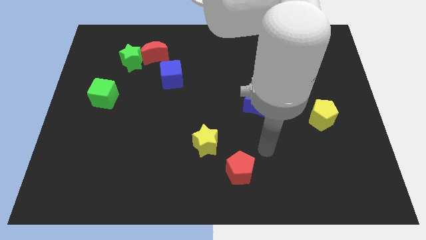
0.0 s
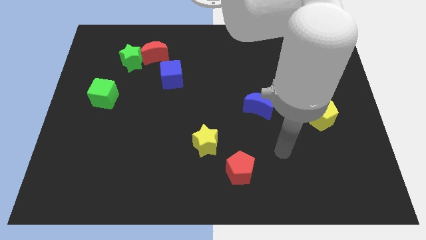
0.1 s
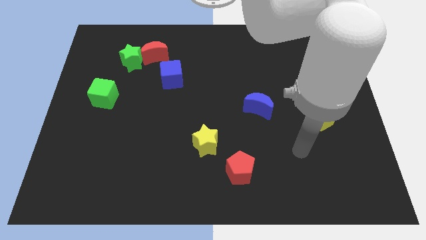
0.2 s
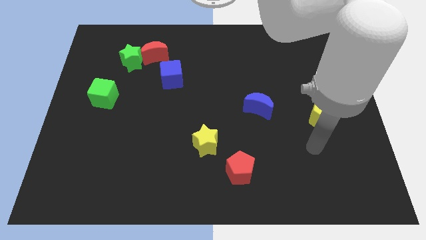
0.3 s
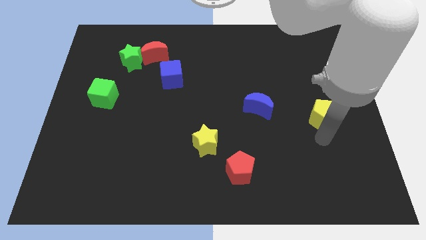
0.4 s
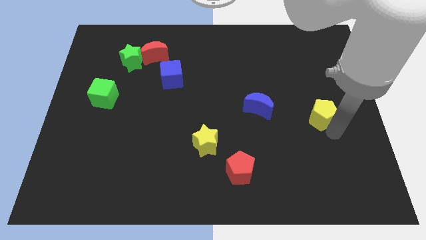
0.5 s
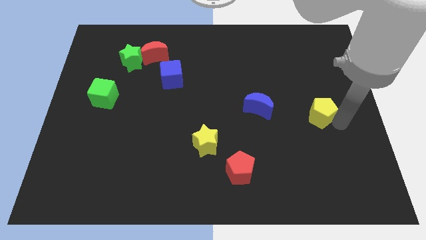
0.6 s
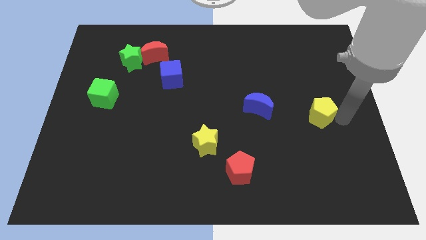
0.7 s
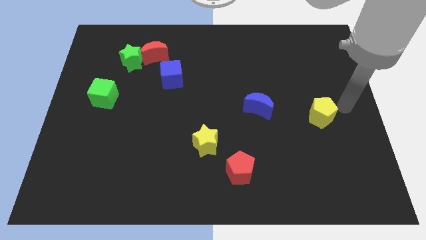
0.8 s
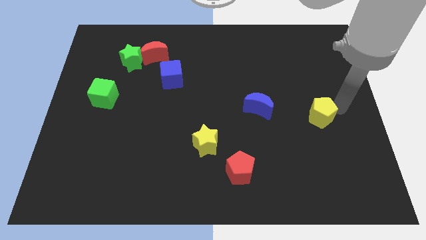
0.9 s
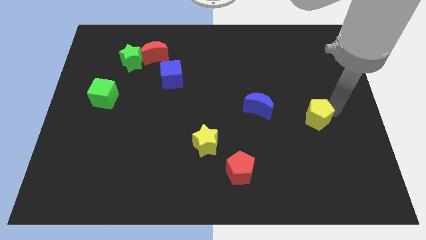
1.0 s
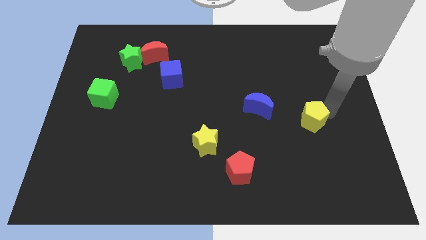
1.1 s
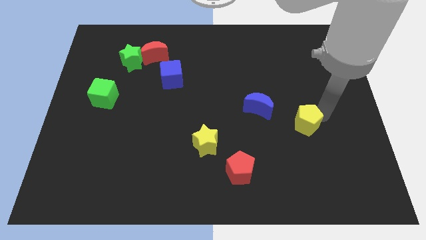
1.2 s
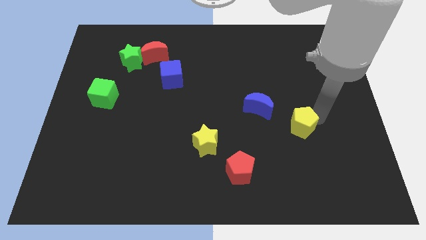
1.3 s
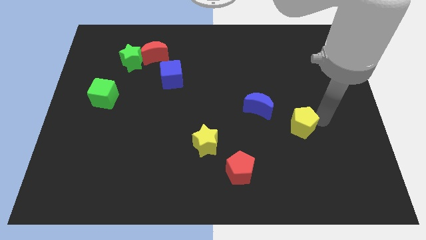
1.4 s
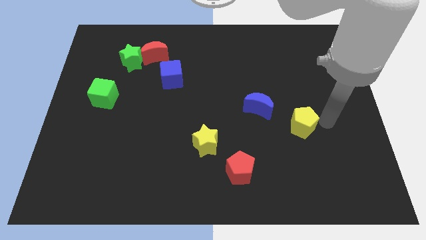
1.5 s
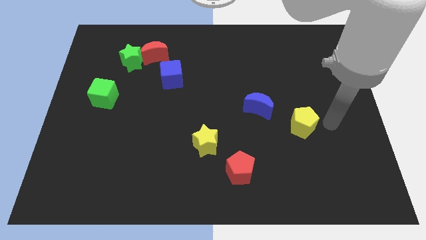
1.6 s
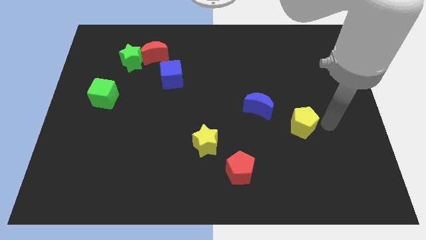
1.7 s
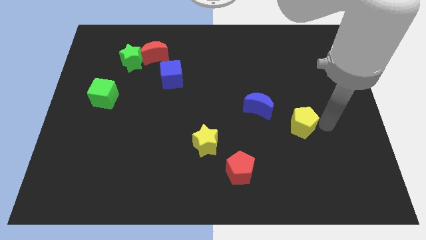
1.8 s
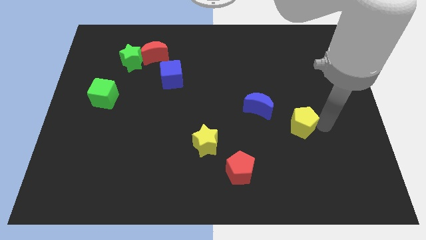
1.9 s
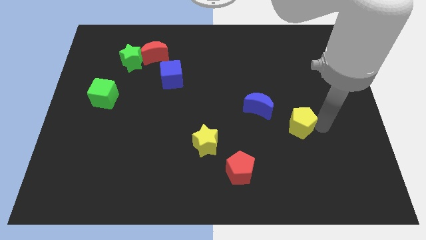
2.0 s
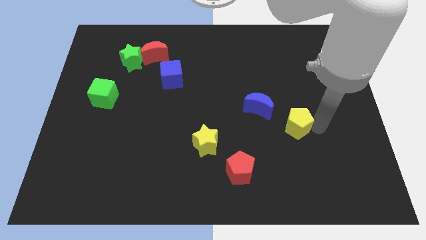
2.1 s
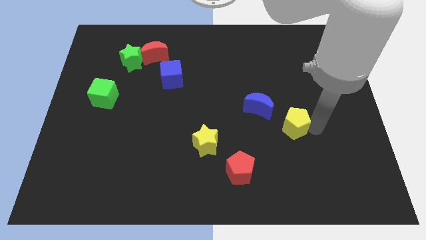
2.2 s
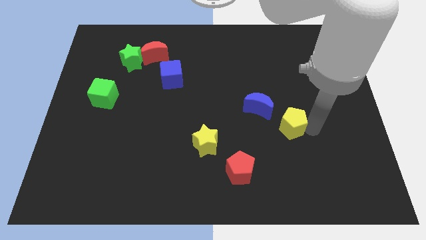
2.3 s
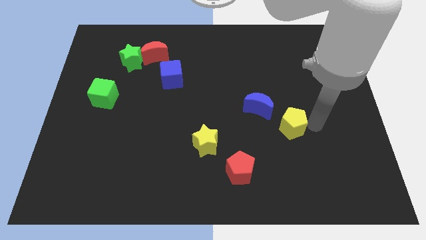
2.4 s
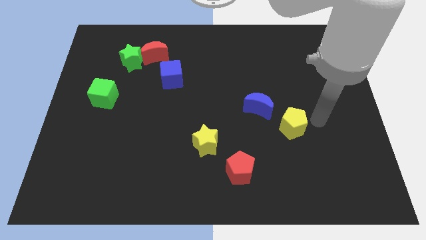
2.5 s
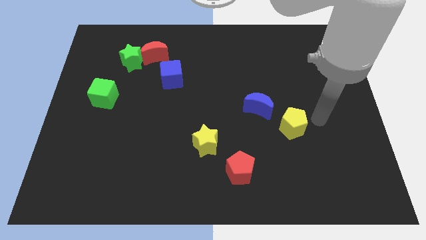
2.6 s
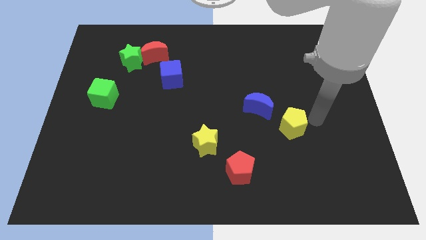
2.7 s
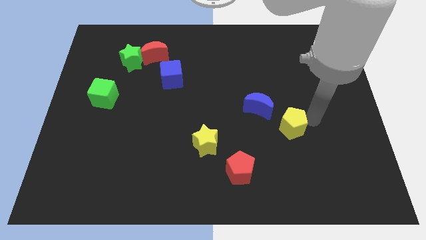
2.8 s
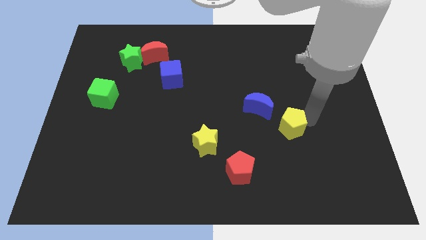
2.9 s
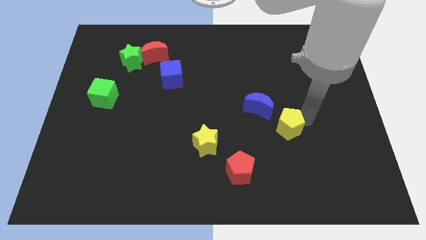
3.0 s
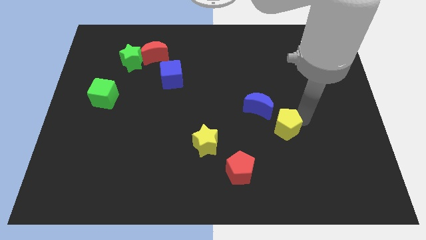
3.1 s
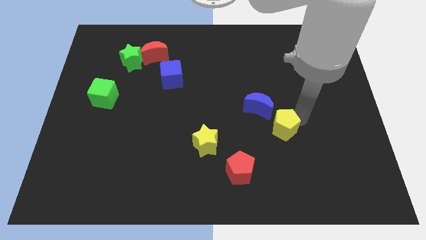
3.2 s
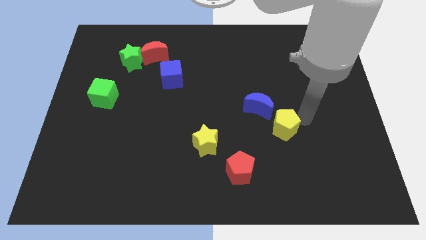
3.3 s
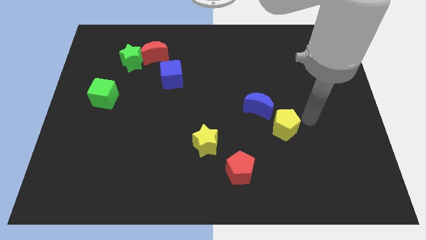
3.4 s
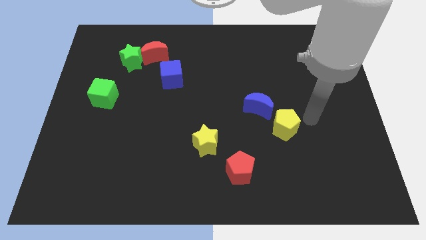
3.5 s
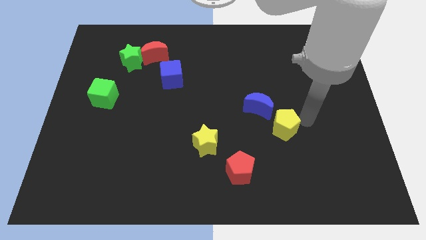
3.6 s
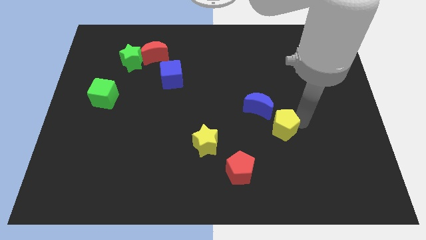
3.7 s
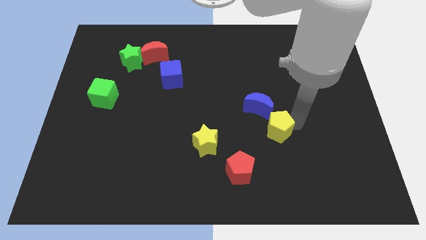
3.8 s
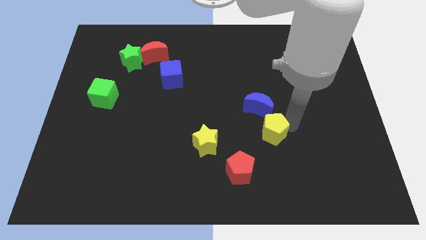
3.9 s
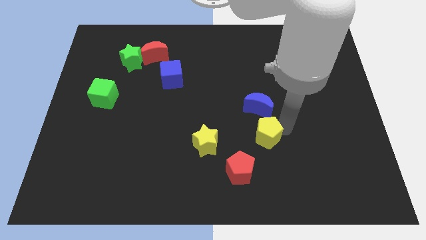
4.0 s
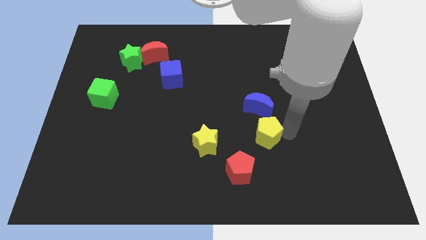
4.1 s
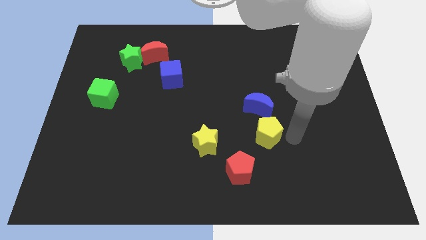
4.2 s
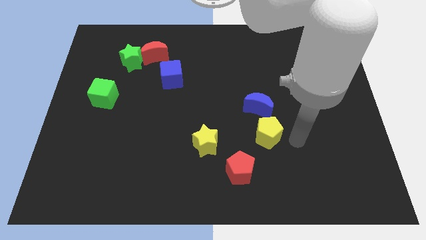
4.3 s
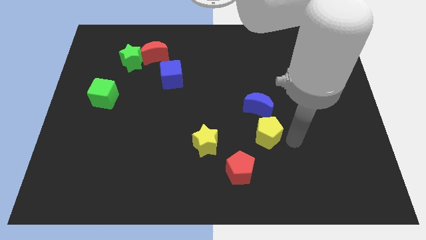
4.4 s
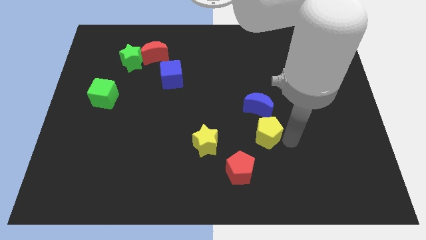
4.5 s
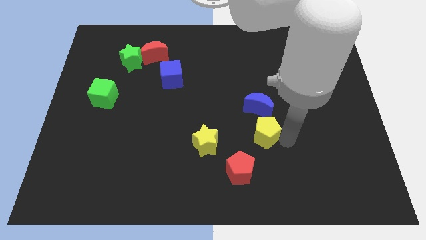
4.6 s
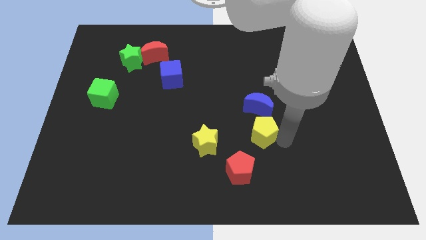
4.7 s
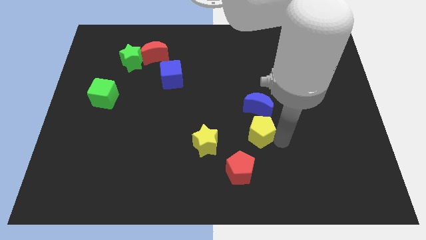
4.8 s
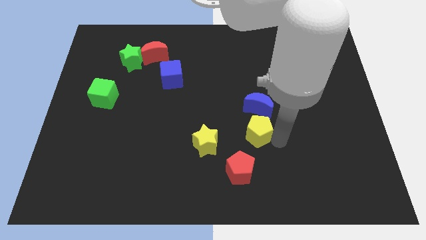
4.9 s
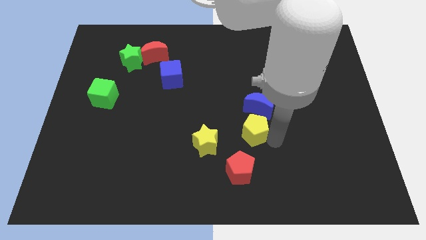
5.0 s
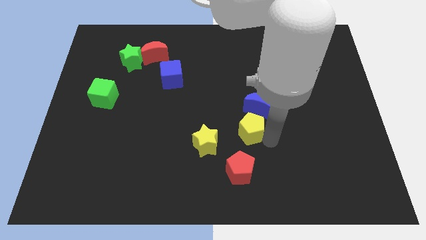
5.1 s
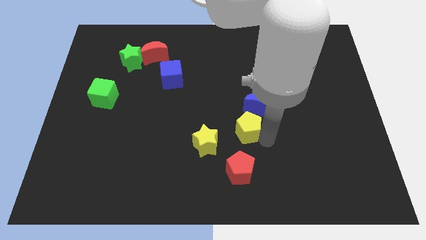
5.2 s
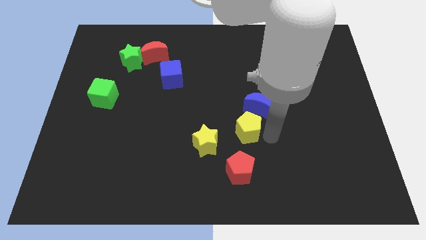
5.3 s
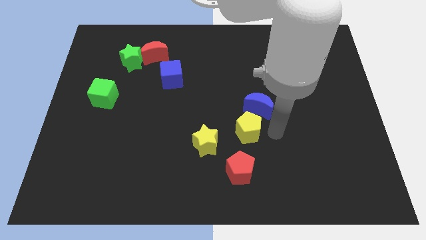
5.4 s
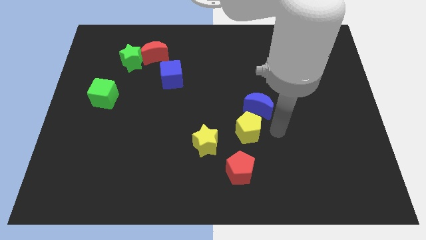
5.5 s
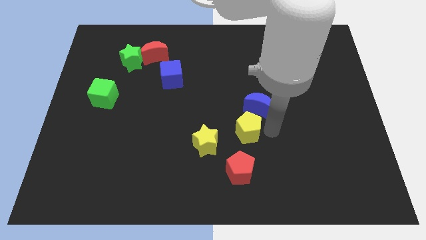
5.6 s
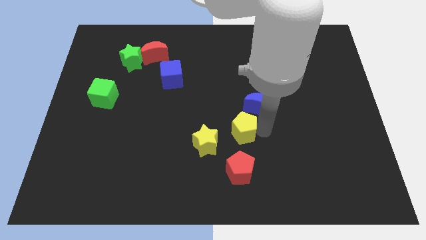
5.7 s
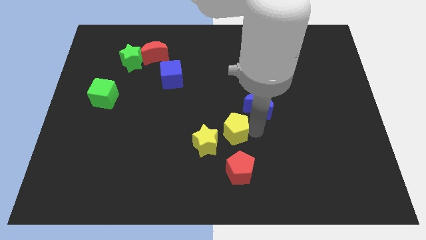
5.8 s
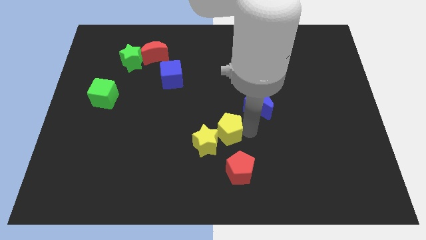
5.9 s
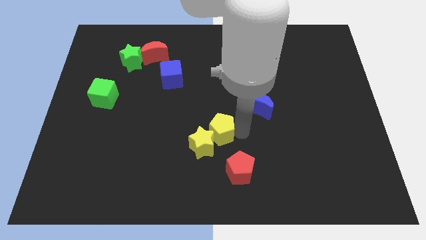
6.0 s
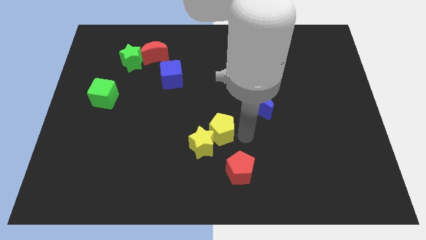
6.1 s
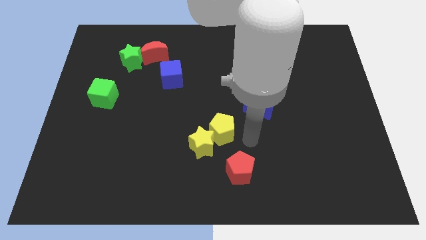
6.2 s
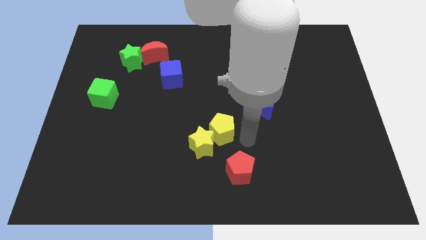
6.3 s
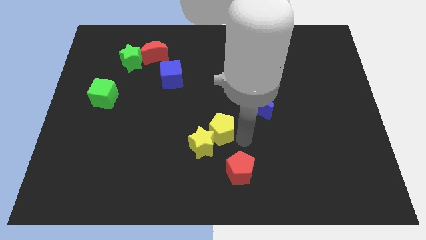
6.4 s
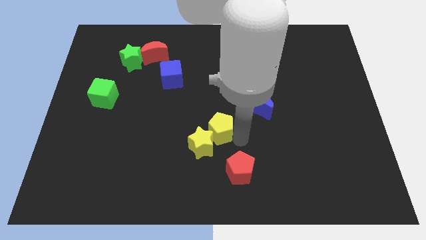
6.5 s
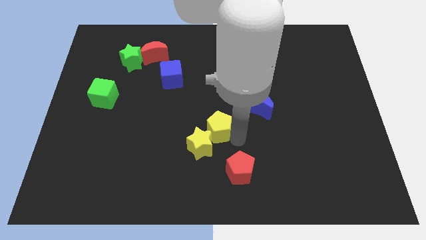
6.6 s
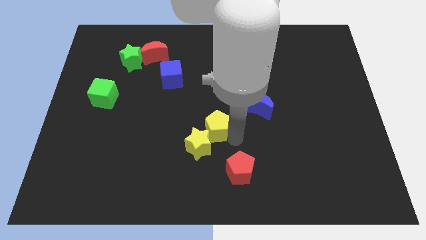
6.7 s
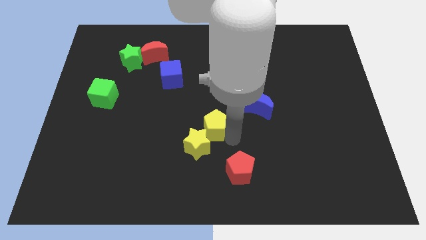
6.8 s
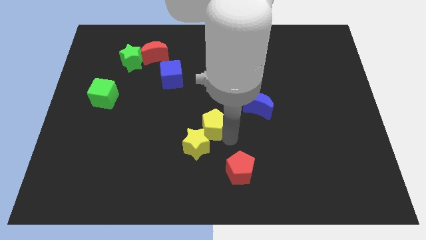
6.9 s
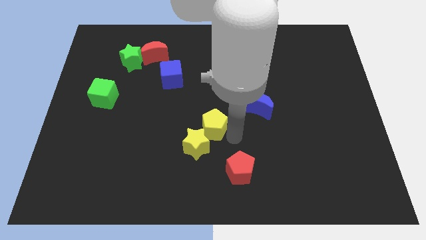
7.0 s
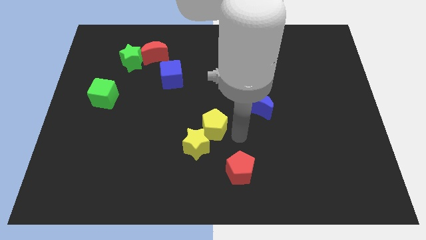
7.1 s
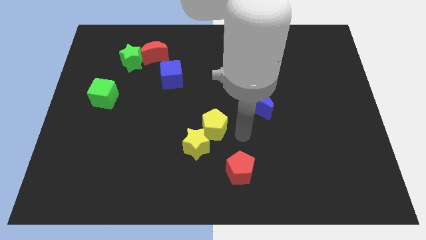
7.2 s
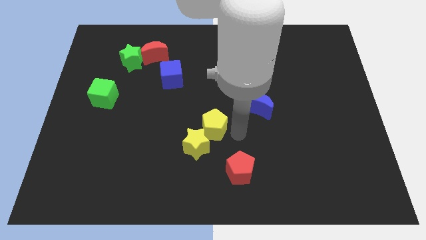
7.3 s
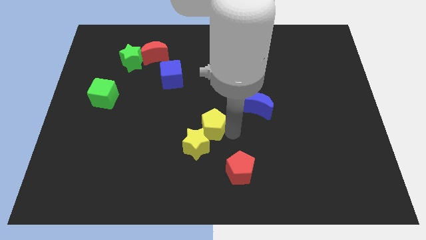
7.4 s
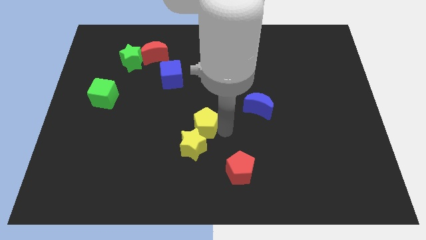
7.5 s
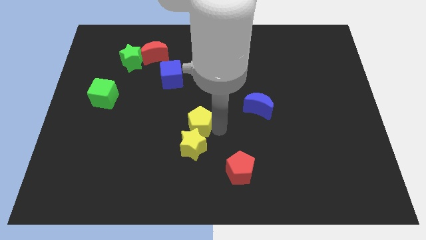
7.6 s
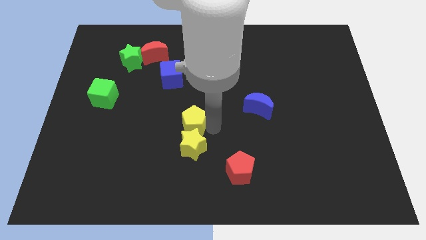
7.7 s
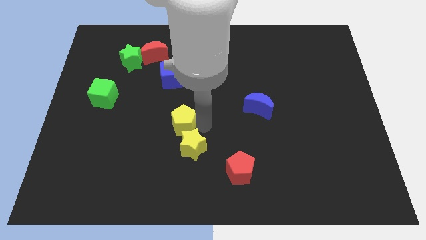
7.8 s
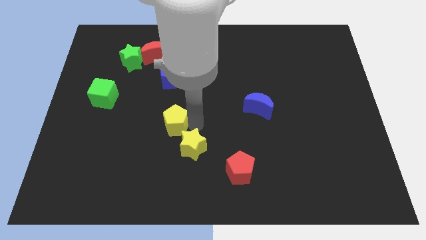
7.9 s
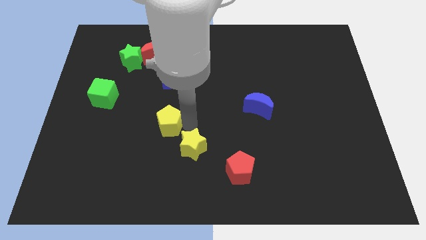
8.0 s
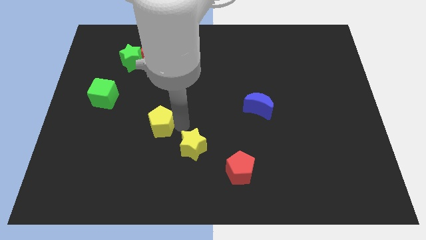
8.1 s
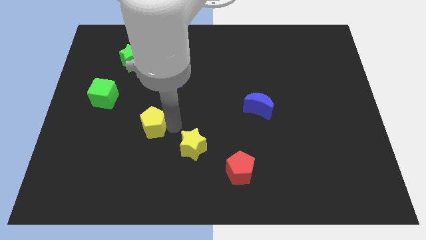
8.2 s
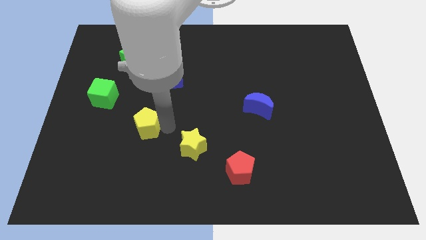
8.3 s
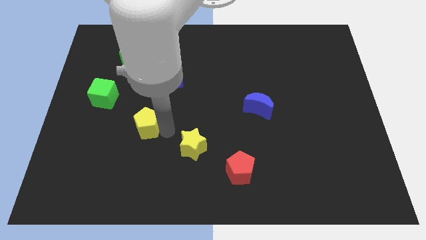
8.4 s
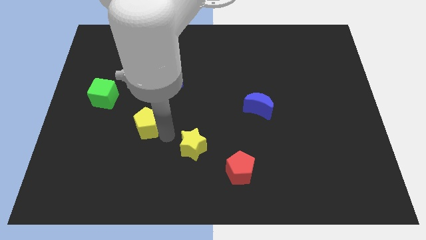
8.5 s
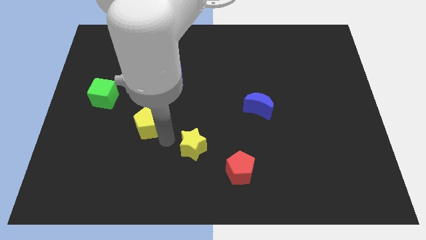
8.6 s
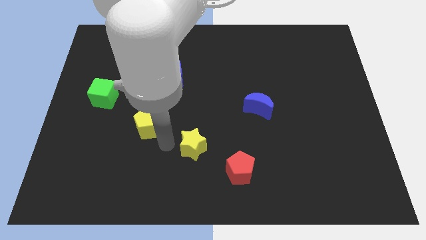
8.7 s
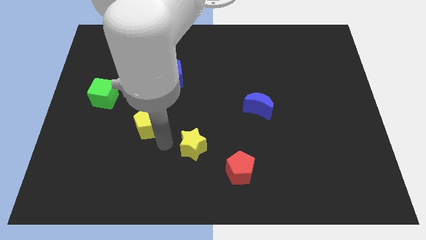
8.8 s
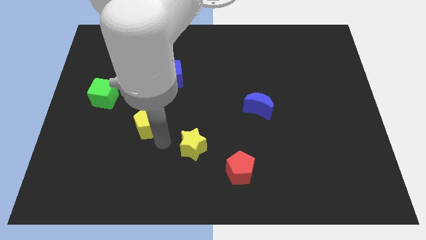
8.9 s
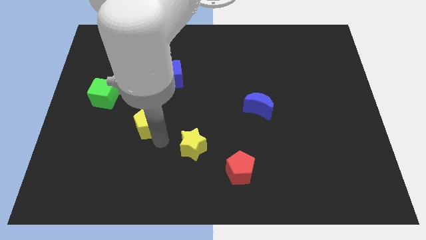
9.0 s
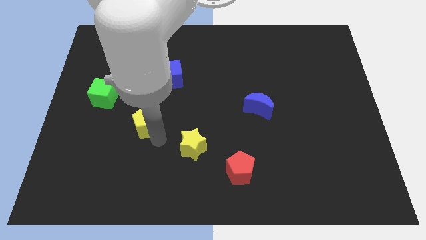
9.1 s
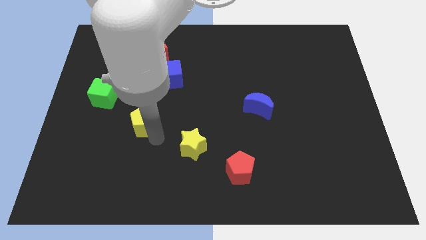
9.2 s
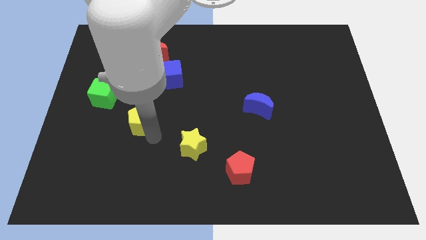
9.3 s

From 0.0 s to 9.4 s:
slide the yellow pentagon to the bottom right side of the green cube
